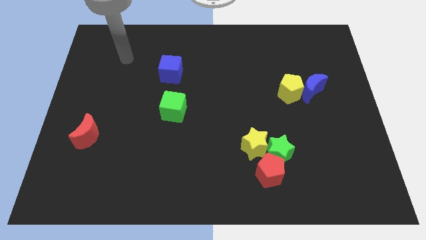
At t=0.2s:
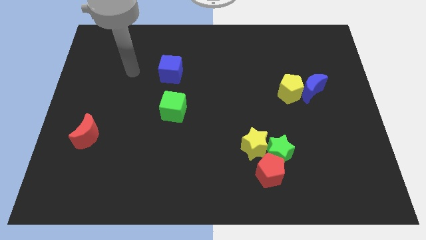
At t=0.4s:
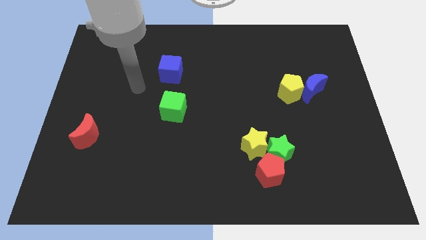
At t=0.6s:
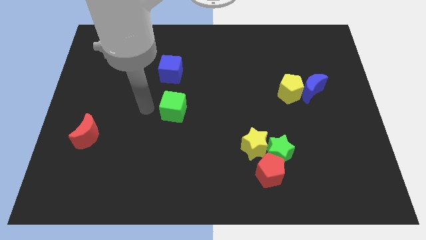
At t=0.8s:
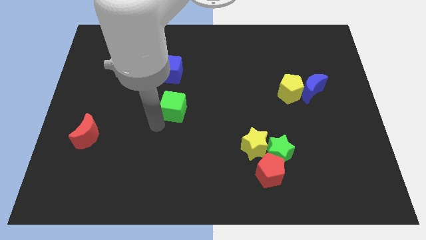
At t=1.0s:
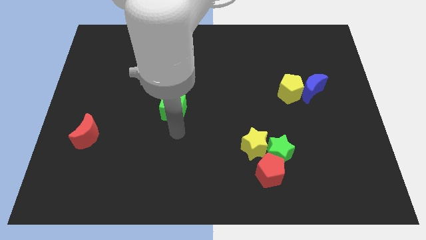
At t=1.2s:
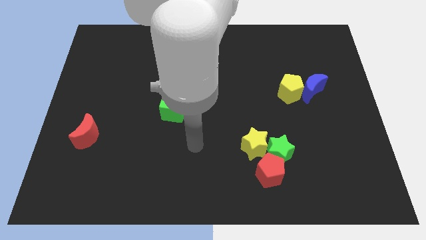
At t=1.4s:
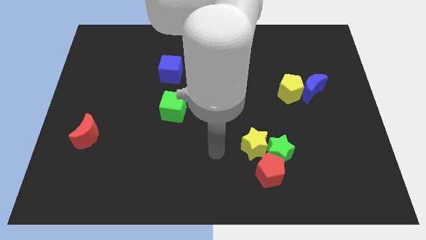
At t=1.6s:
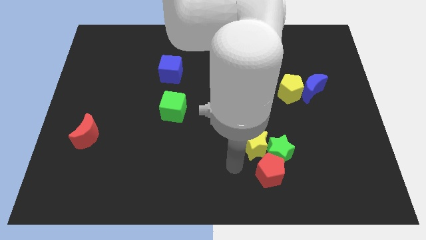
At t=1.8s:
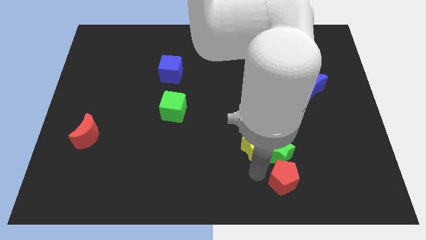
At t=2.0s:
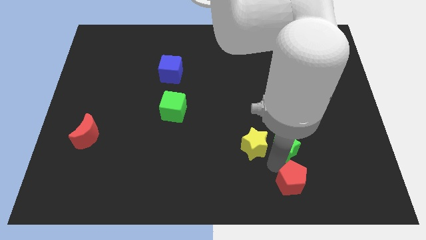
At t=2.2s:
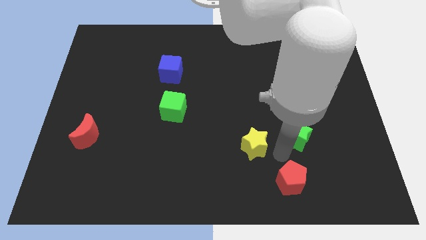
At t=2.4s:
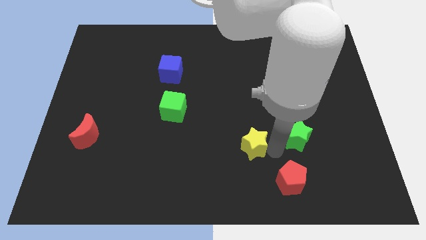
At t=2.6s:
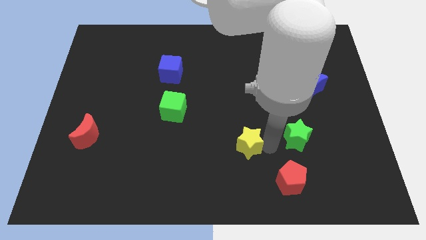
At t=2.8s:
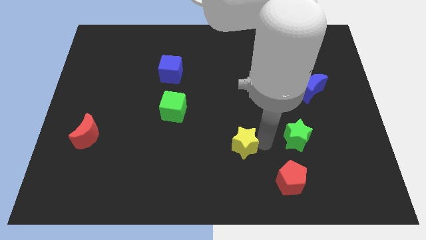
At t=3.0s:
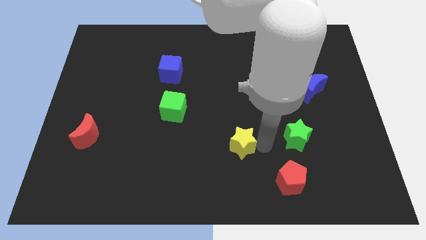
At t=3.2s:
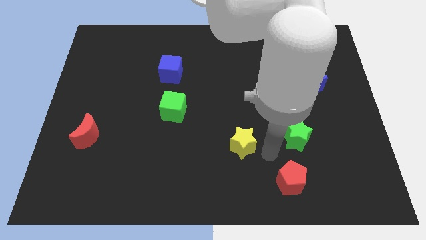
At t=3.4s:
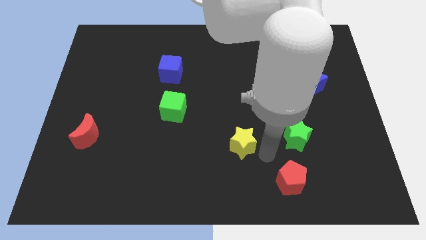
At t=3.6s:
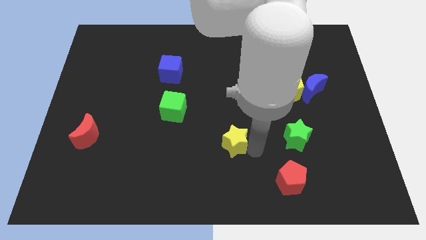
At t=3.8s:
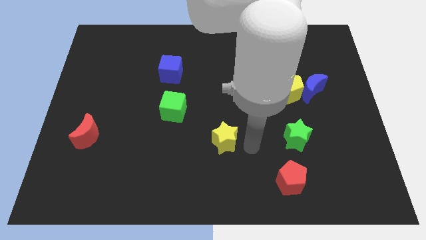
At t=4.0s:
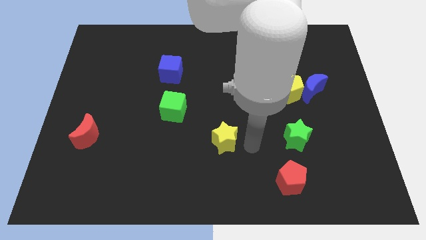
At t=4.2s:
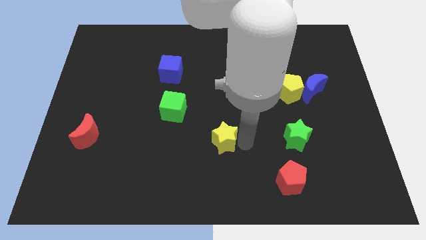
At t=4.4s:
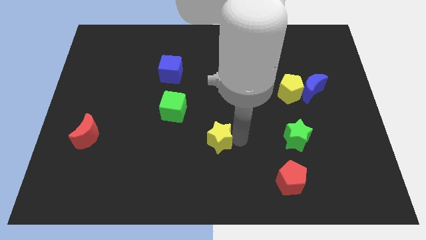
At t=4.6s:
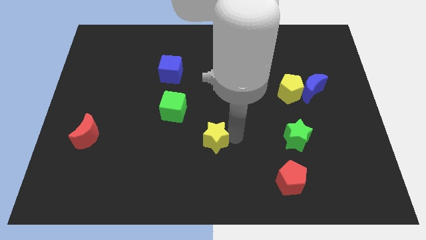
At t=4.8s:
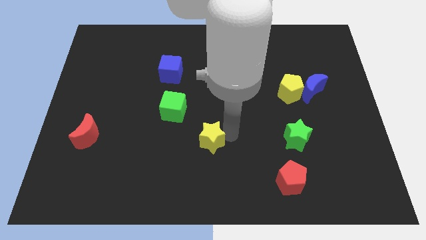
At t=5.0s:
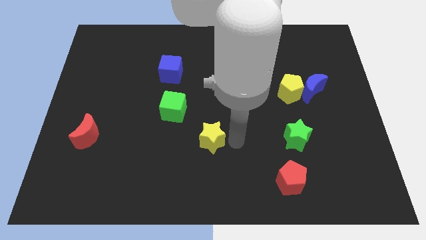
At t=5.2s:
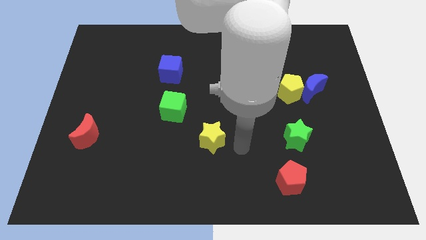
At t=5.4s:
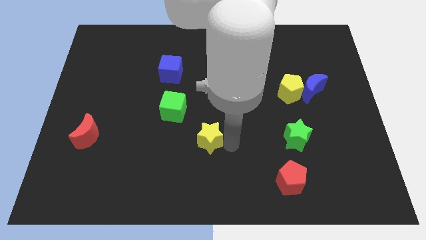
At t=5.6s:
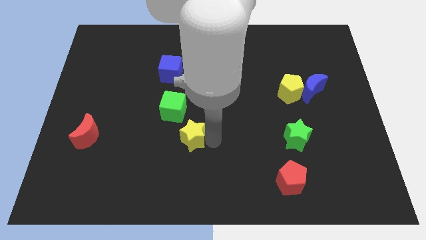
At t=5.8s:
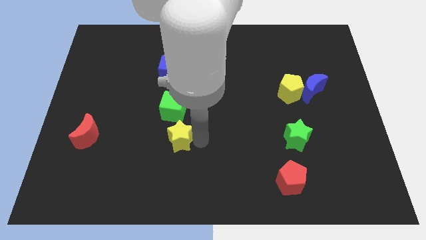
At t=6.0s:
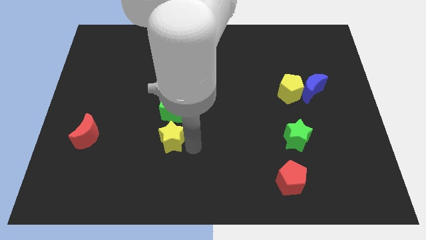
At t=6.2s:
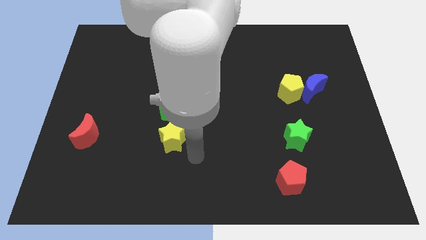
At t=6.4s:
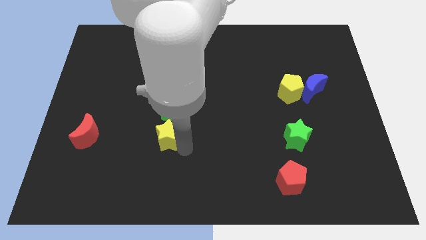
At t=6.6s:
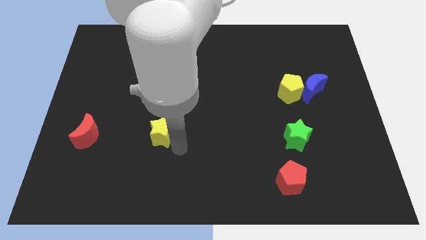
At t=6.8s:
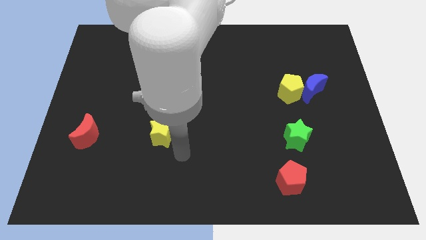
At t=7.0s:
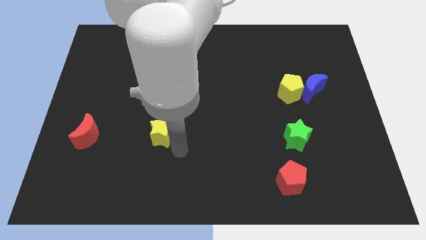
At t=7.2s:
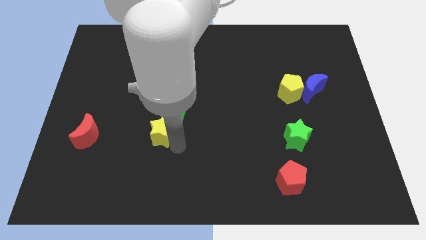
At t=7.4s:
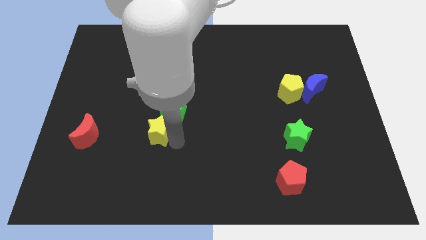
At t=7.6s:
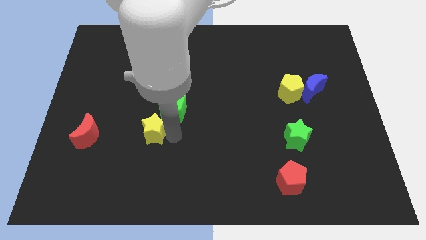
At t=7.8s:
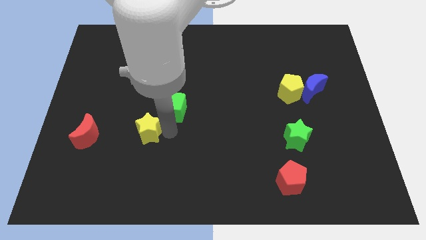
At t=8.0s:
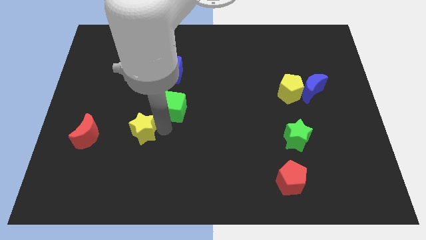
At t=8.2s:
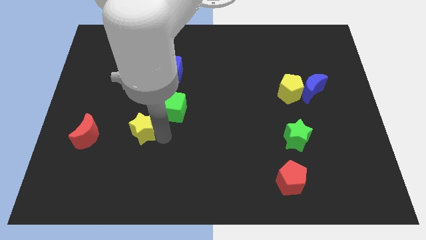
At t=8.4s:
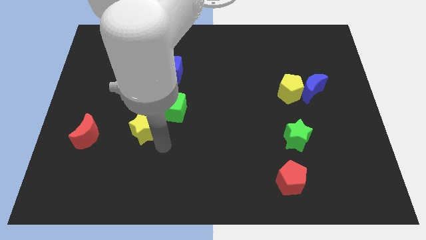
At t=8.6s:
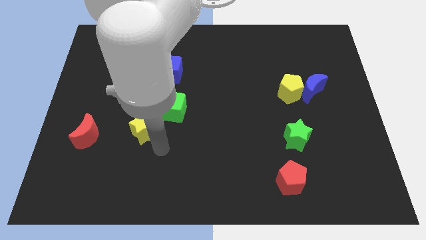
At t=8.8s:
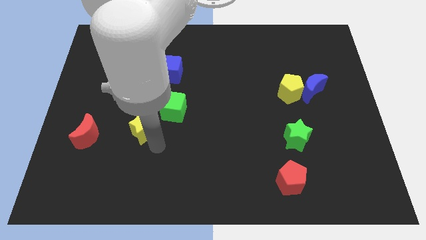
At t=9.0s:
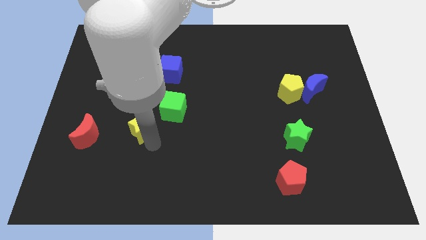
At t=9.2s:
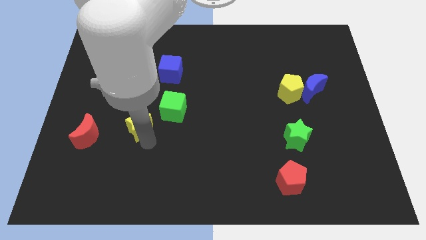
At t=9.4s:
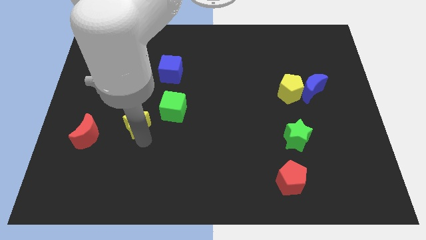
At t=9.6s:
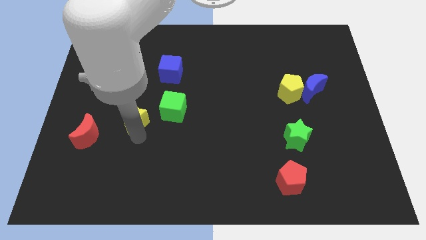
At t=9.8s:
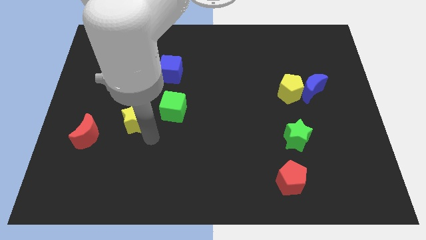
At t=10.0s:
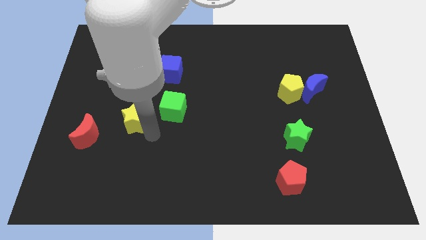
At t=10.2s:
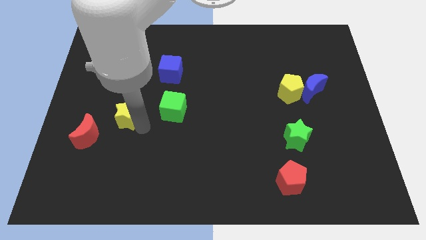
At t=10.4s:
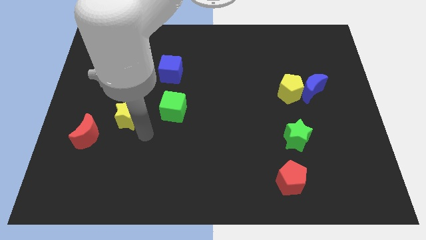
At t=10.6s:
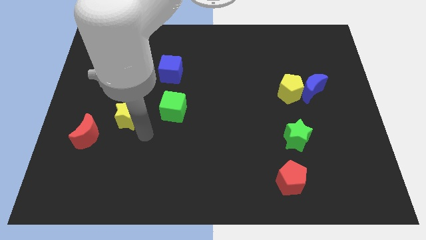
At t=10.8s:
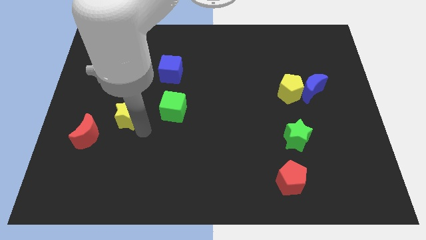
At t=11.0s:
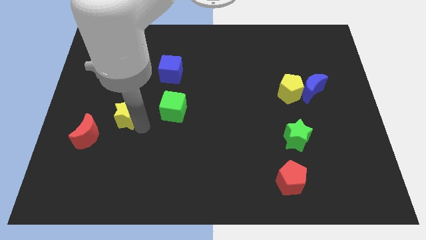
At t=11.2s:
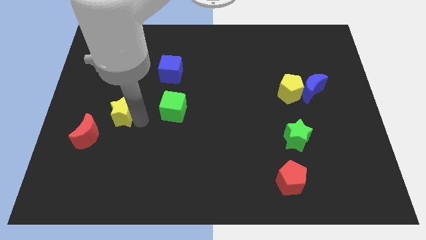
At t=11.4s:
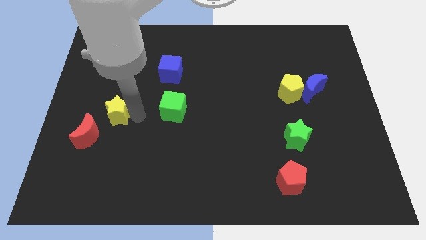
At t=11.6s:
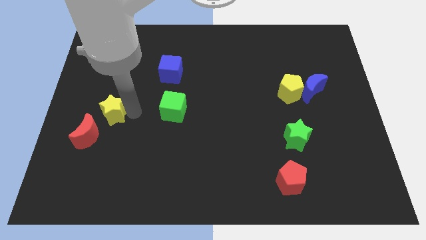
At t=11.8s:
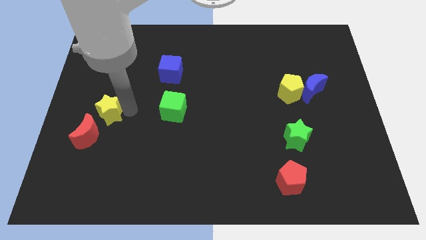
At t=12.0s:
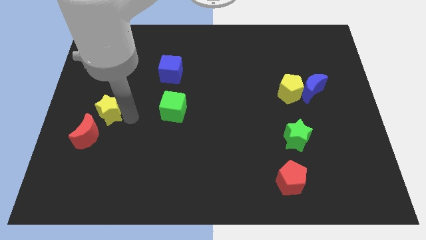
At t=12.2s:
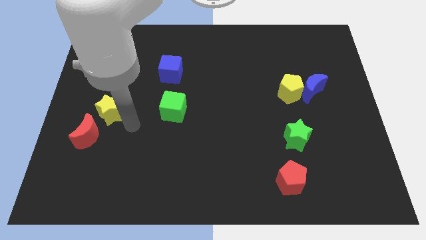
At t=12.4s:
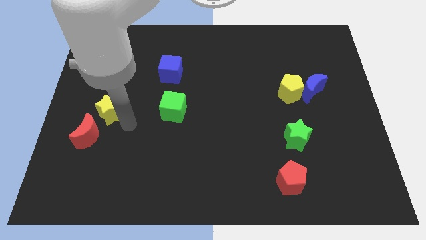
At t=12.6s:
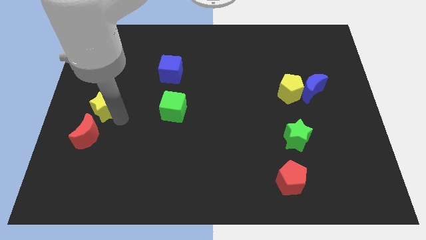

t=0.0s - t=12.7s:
move the yellow star to the center left
